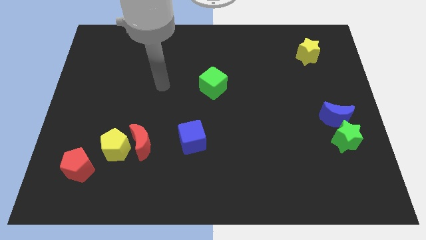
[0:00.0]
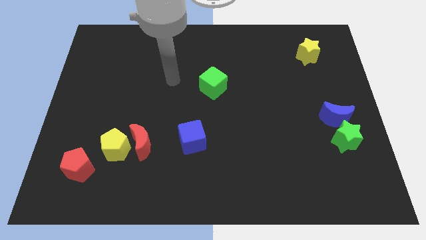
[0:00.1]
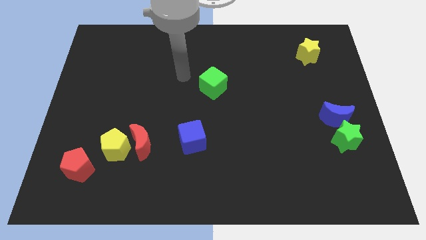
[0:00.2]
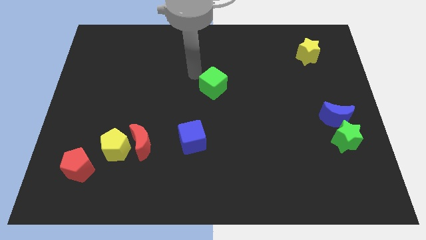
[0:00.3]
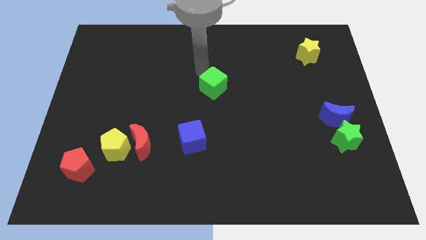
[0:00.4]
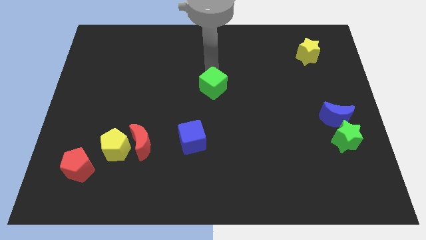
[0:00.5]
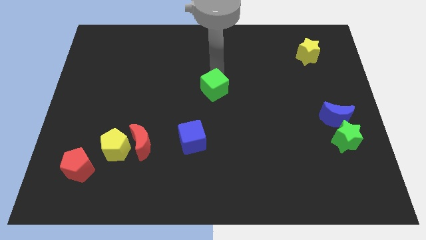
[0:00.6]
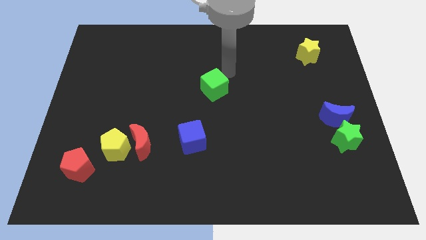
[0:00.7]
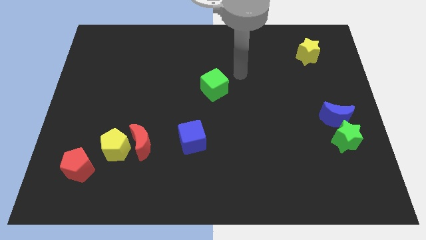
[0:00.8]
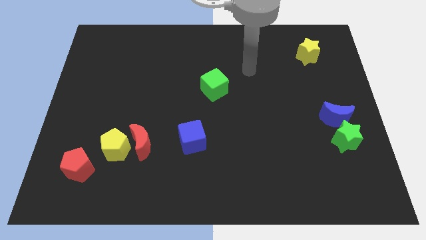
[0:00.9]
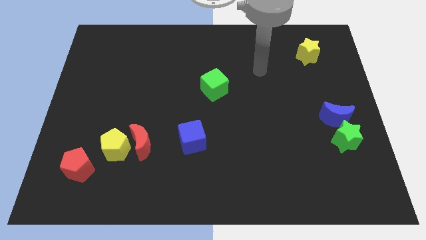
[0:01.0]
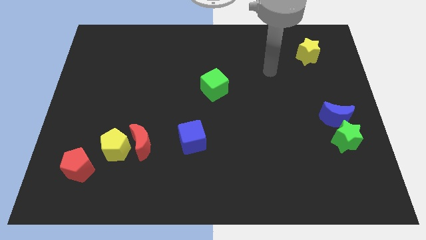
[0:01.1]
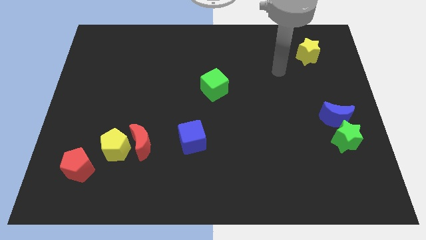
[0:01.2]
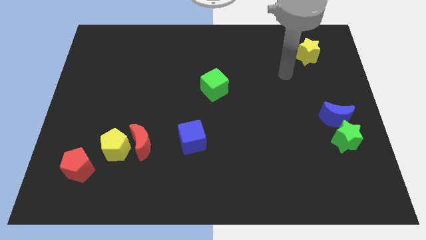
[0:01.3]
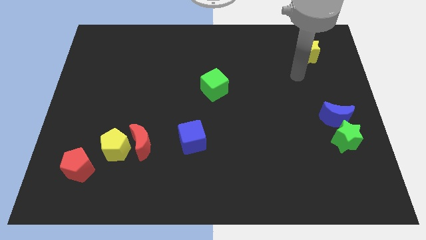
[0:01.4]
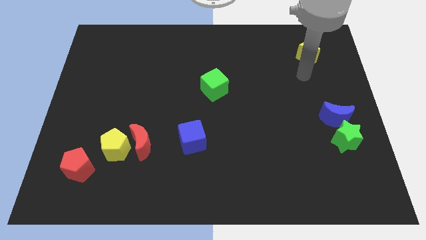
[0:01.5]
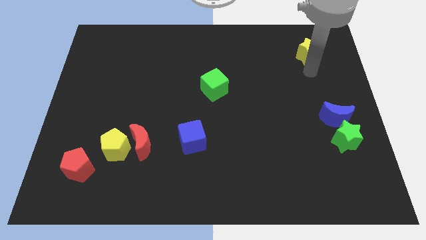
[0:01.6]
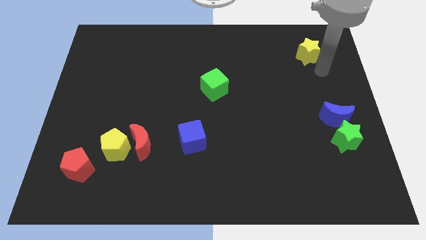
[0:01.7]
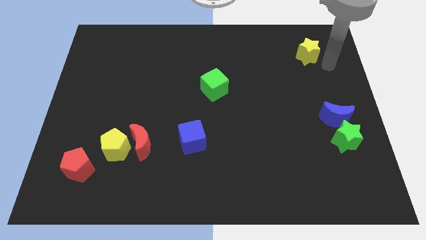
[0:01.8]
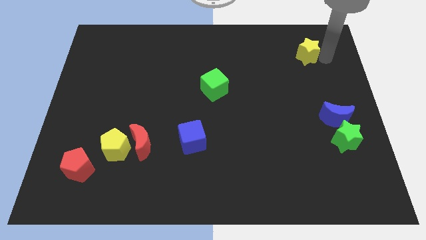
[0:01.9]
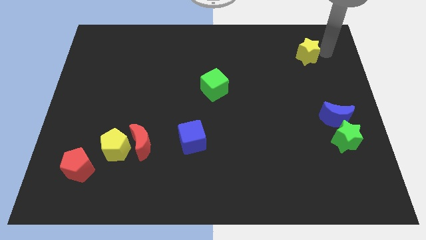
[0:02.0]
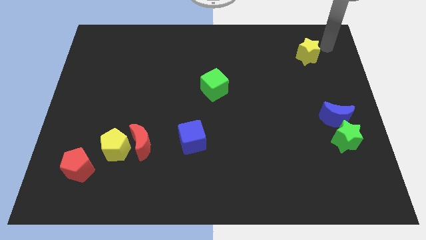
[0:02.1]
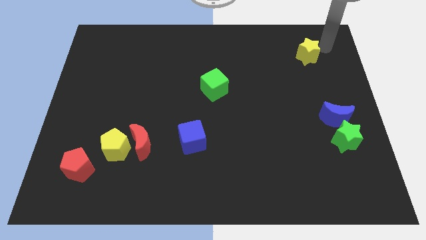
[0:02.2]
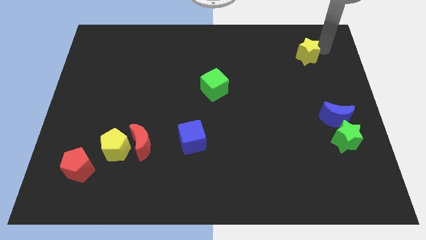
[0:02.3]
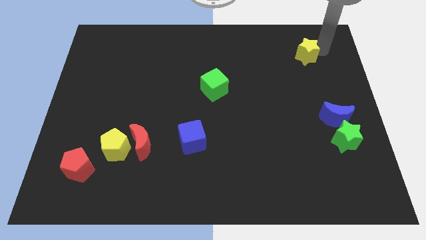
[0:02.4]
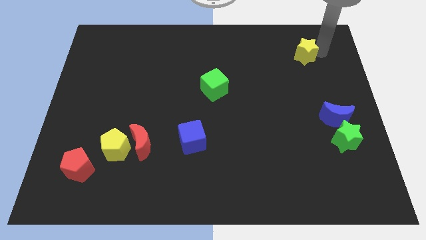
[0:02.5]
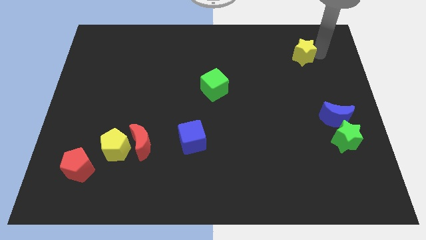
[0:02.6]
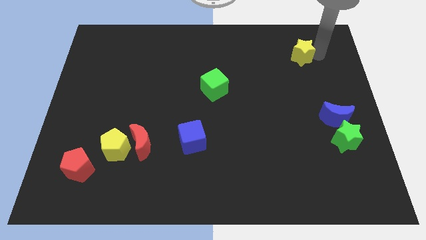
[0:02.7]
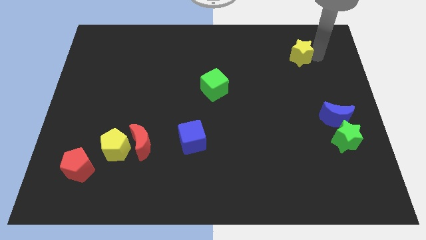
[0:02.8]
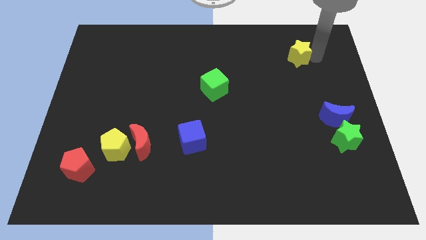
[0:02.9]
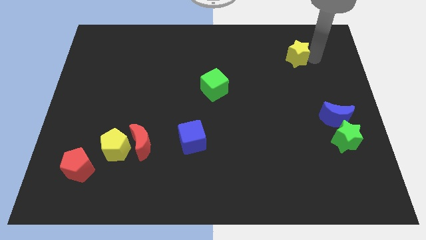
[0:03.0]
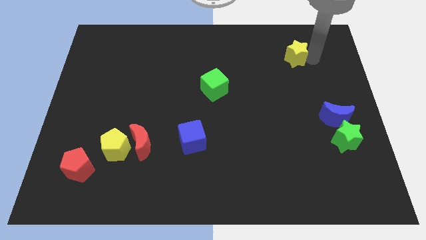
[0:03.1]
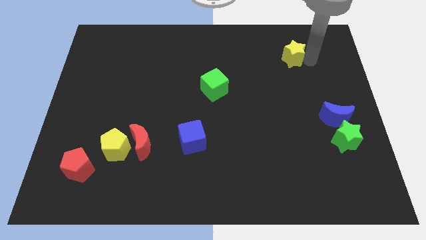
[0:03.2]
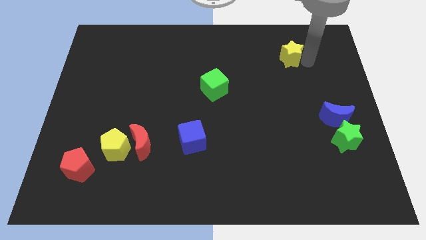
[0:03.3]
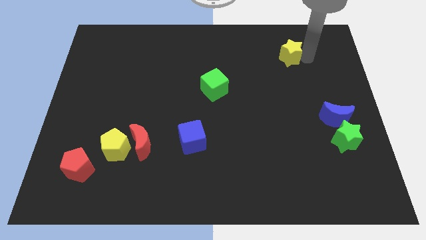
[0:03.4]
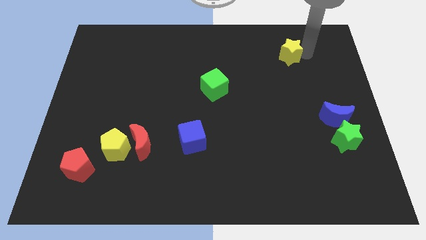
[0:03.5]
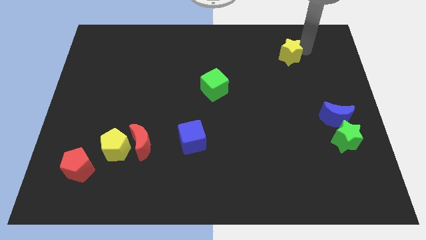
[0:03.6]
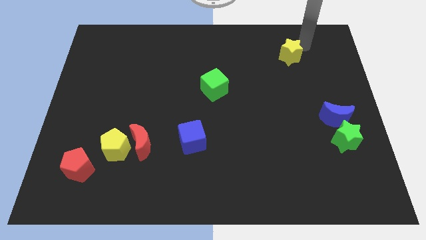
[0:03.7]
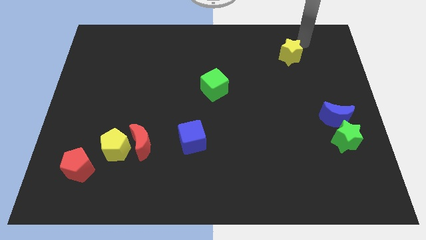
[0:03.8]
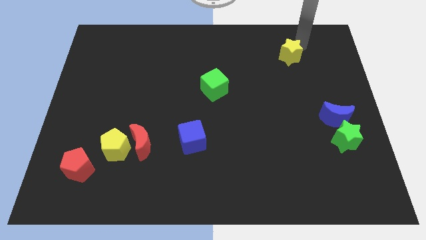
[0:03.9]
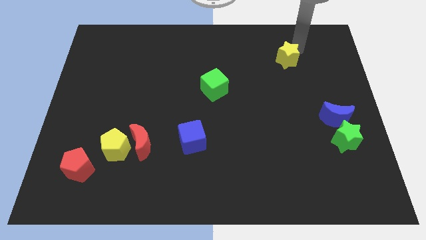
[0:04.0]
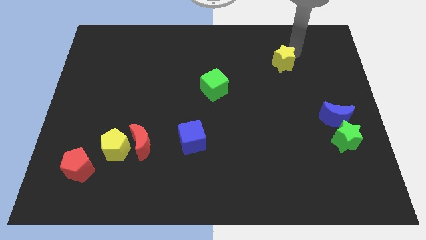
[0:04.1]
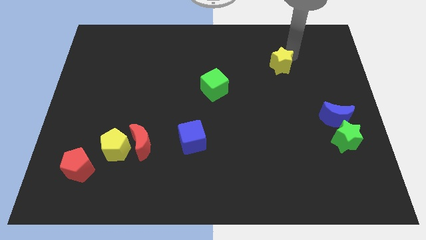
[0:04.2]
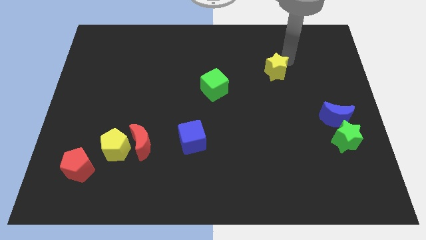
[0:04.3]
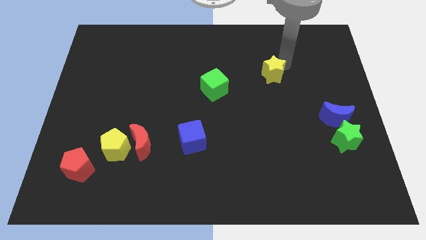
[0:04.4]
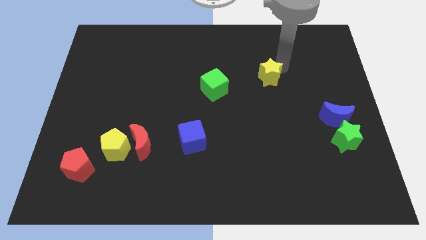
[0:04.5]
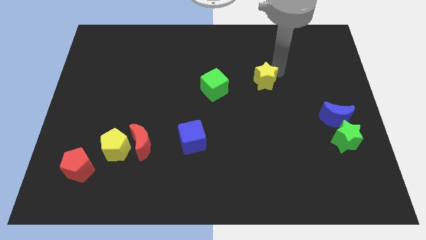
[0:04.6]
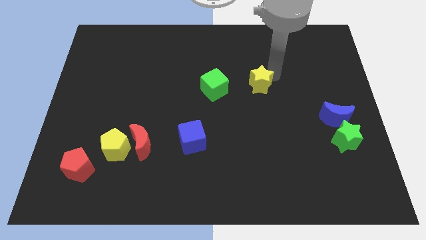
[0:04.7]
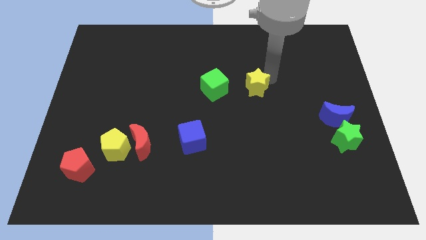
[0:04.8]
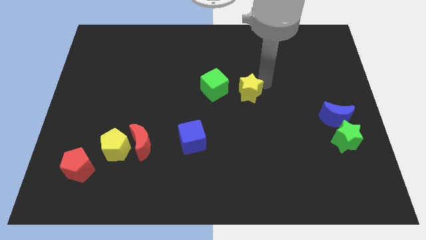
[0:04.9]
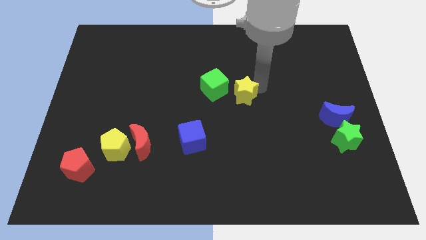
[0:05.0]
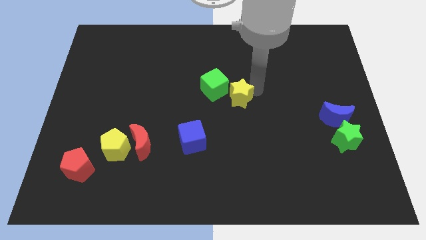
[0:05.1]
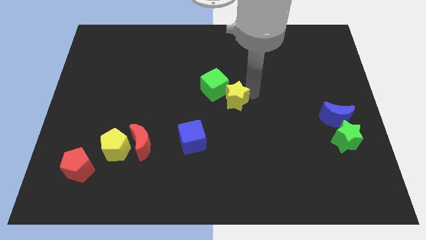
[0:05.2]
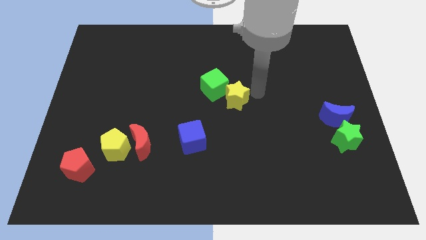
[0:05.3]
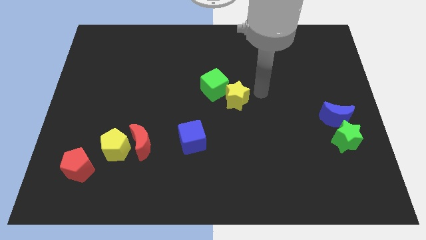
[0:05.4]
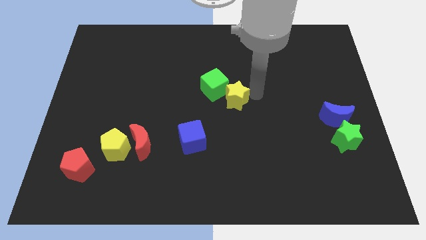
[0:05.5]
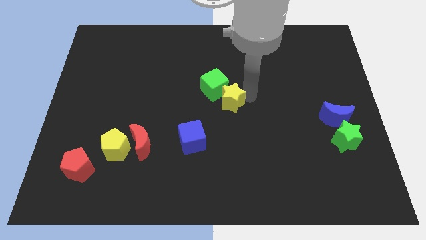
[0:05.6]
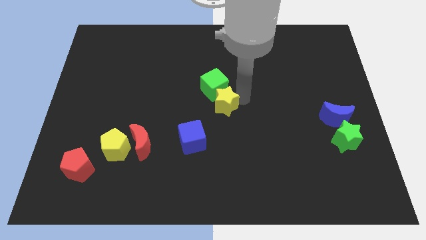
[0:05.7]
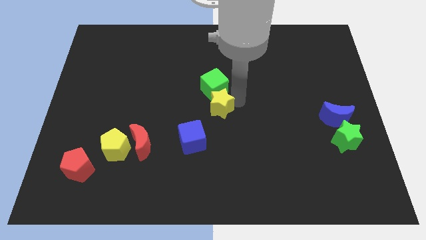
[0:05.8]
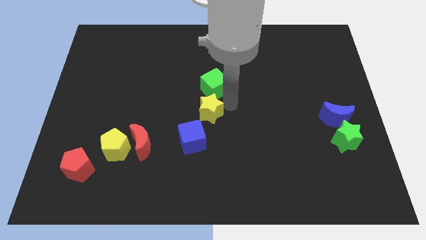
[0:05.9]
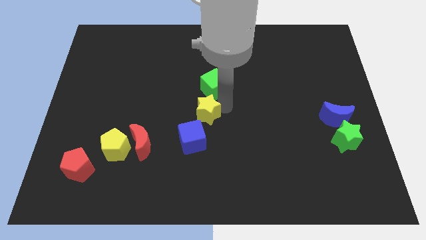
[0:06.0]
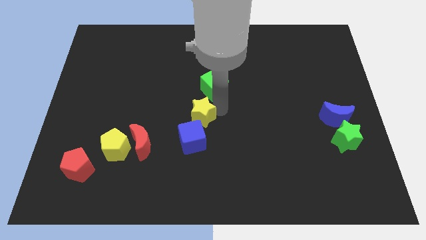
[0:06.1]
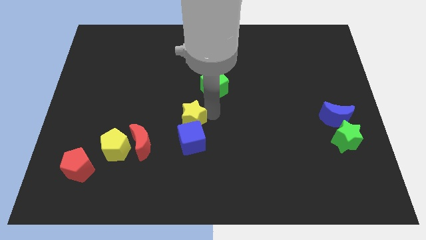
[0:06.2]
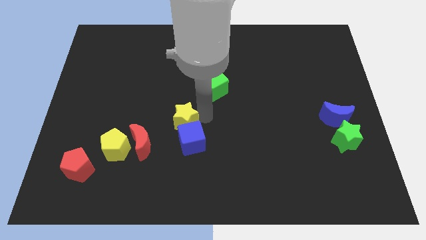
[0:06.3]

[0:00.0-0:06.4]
push the yellow star to the top right of the red moon

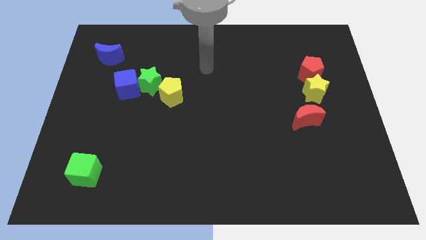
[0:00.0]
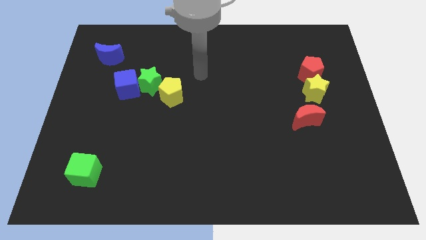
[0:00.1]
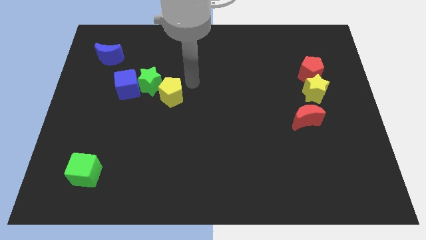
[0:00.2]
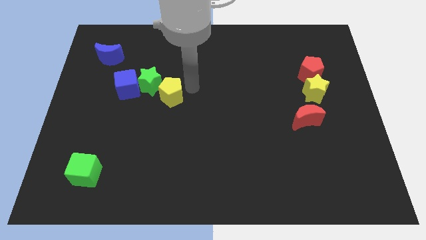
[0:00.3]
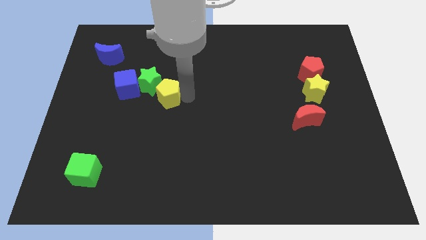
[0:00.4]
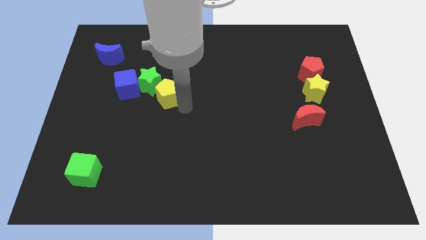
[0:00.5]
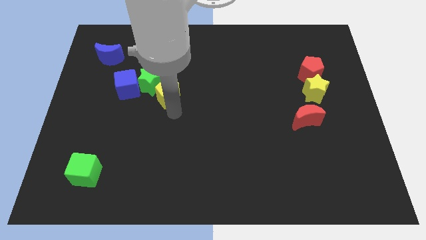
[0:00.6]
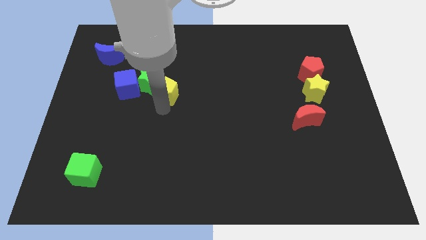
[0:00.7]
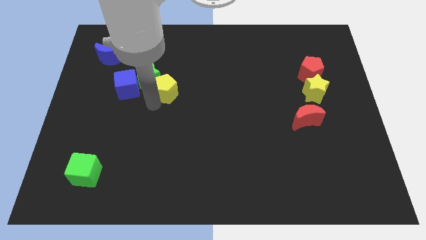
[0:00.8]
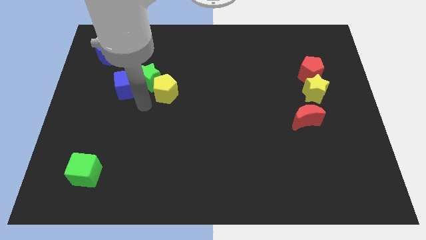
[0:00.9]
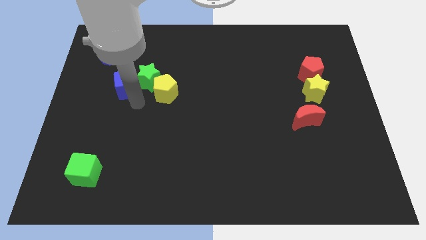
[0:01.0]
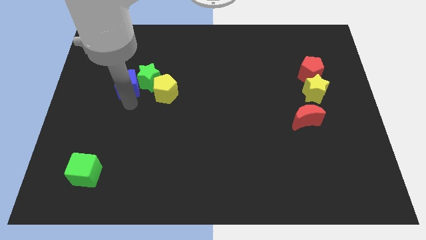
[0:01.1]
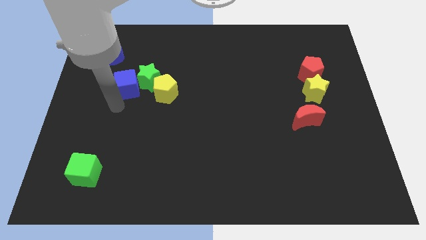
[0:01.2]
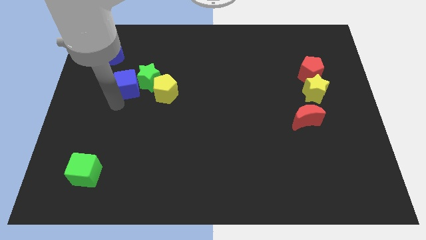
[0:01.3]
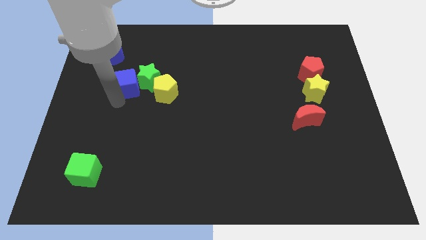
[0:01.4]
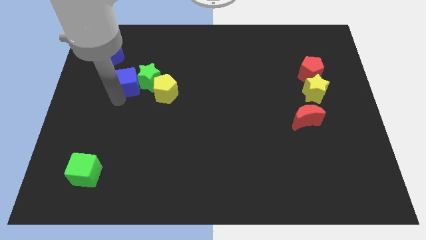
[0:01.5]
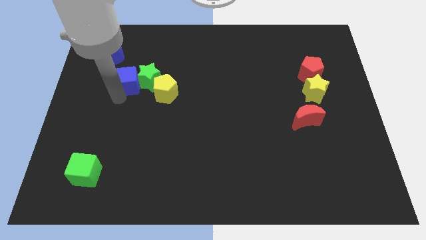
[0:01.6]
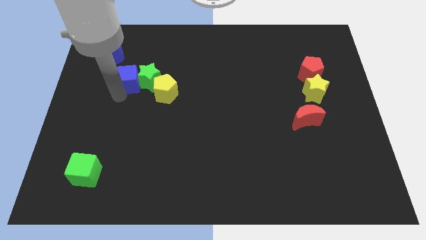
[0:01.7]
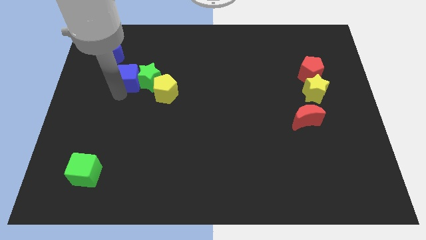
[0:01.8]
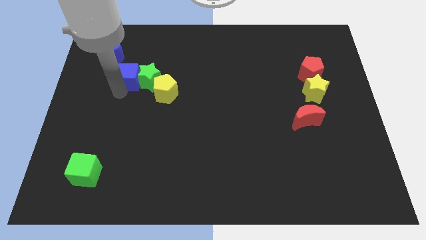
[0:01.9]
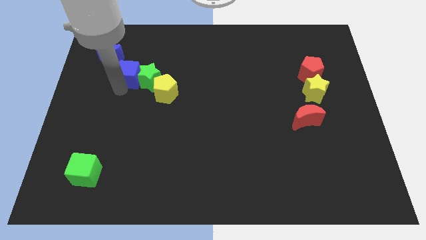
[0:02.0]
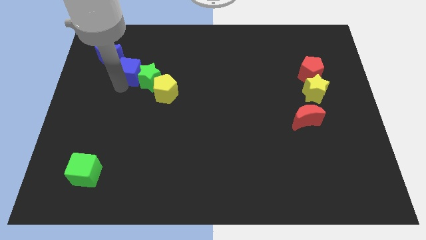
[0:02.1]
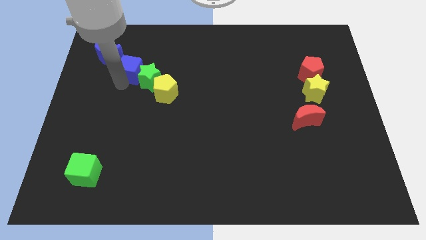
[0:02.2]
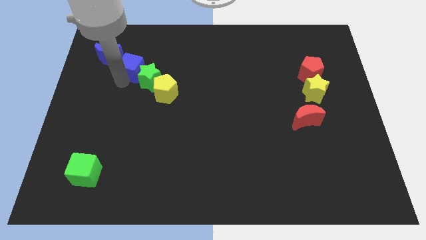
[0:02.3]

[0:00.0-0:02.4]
move the blue cube just right of the blue moon
